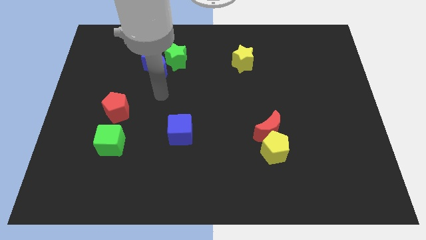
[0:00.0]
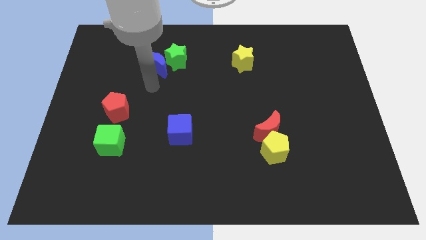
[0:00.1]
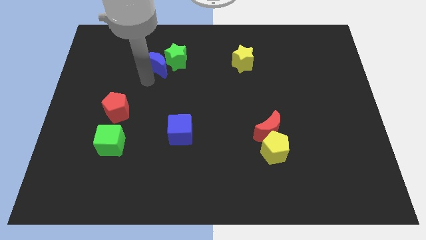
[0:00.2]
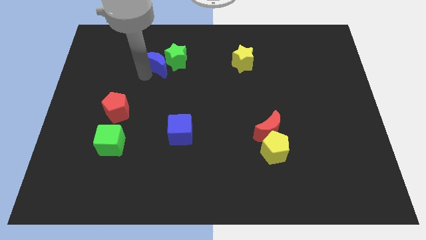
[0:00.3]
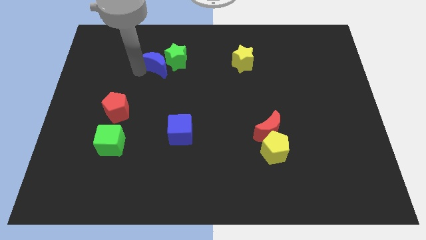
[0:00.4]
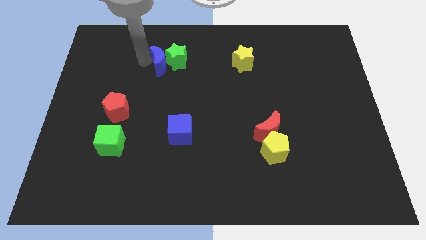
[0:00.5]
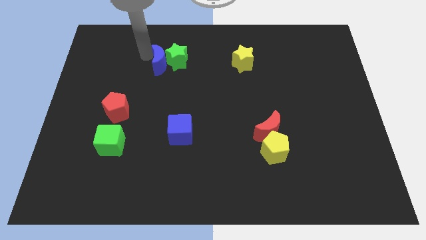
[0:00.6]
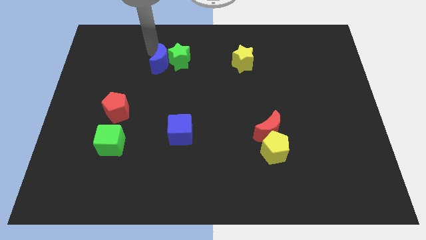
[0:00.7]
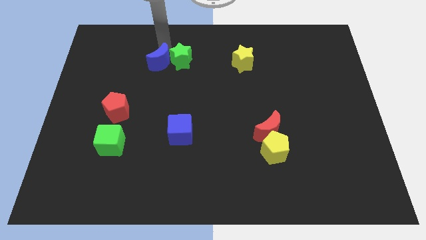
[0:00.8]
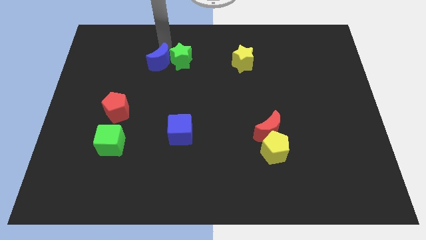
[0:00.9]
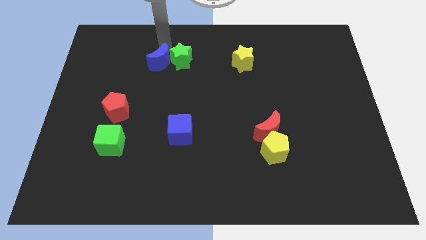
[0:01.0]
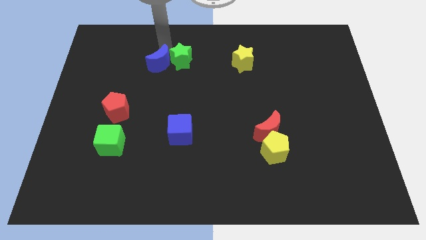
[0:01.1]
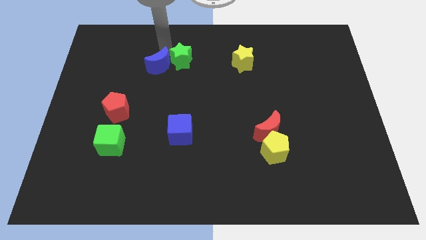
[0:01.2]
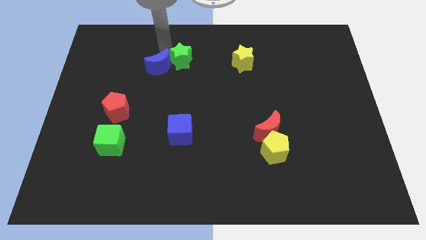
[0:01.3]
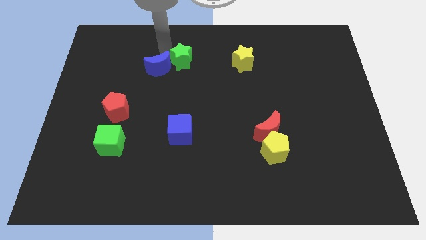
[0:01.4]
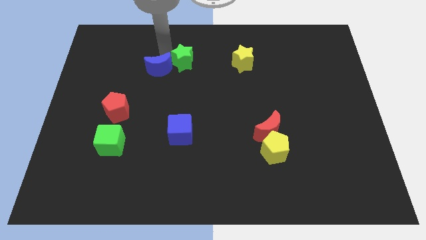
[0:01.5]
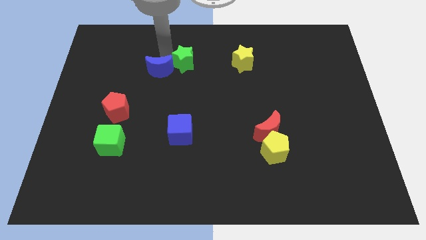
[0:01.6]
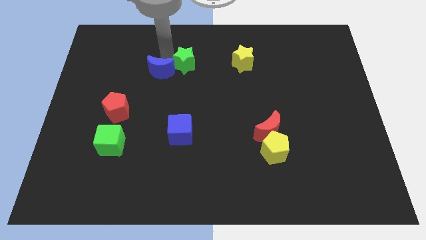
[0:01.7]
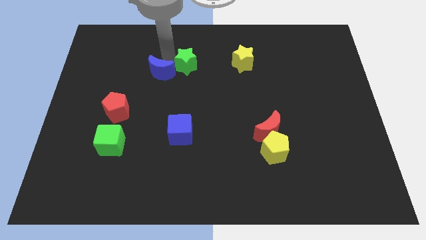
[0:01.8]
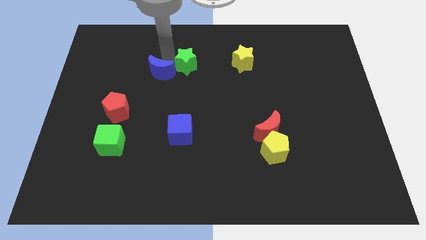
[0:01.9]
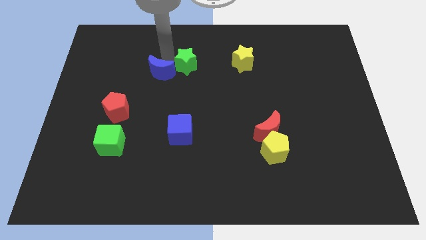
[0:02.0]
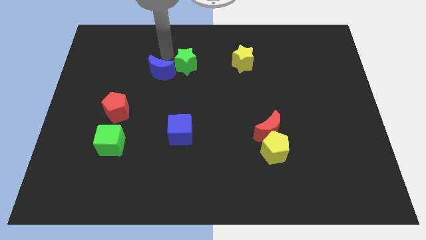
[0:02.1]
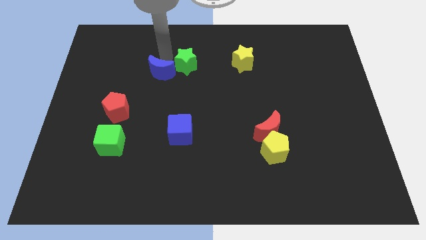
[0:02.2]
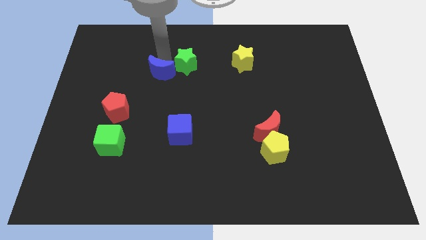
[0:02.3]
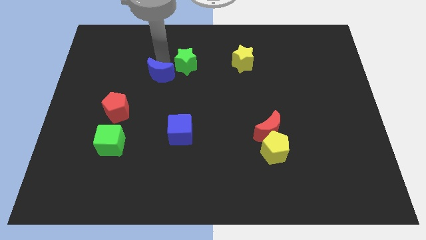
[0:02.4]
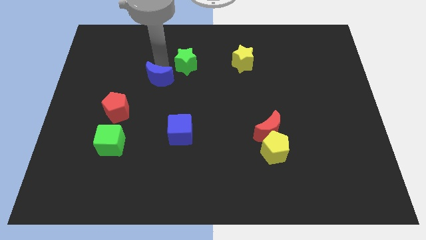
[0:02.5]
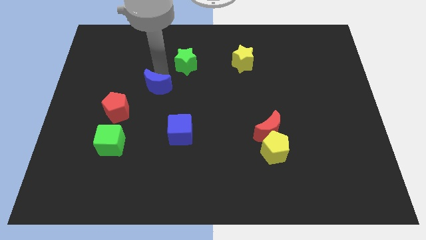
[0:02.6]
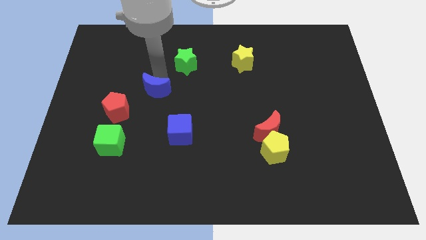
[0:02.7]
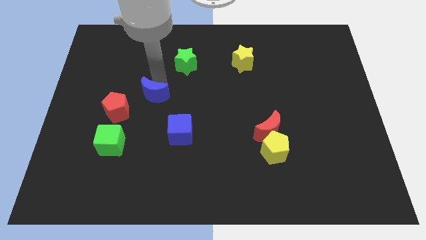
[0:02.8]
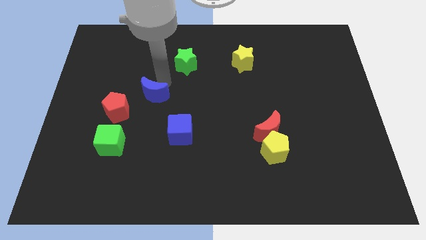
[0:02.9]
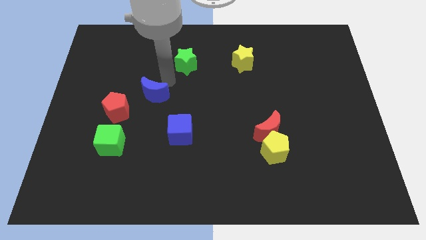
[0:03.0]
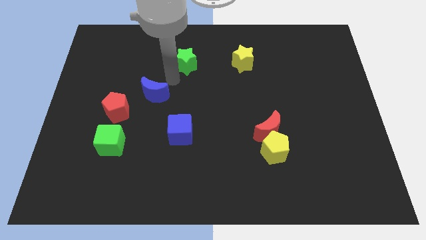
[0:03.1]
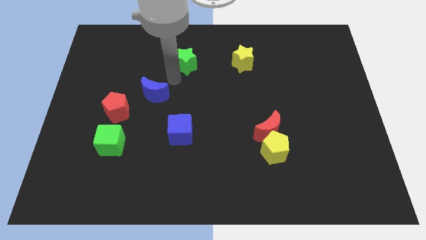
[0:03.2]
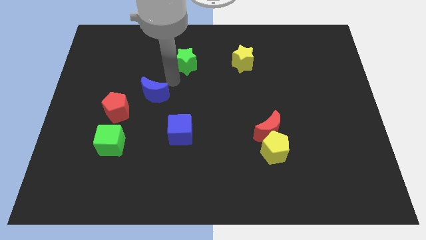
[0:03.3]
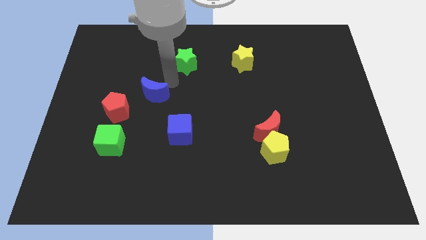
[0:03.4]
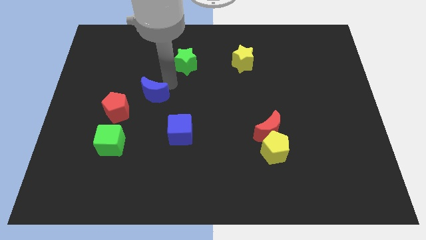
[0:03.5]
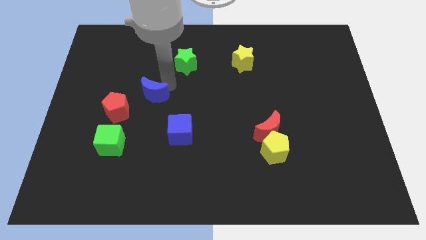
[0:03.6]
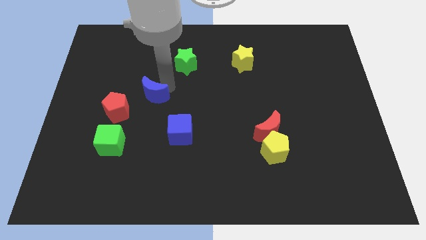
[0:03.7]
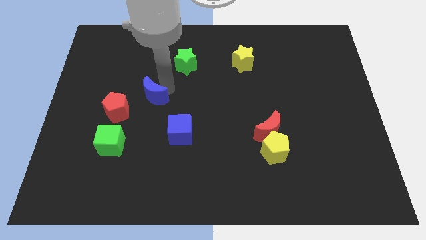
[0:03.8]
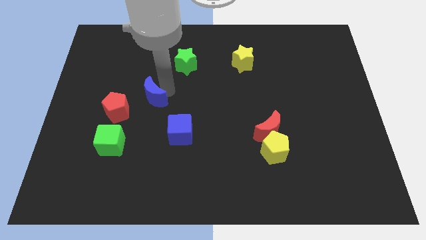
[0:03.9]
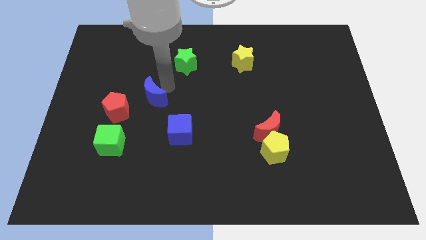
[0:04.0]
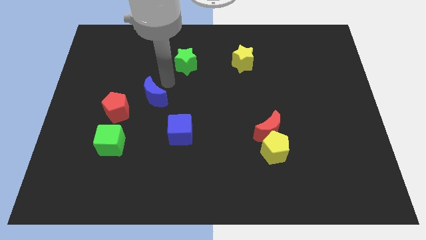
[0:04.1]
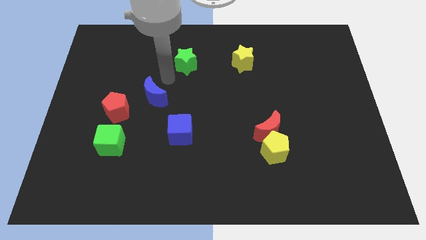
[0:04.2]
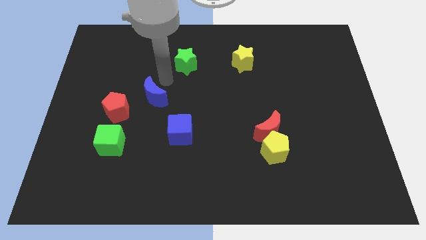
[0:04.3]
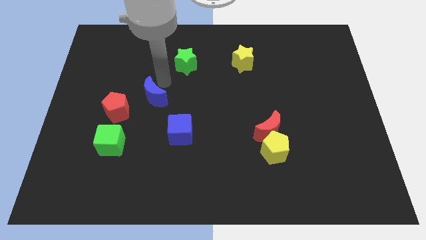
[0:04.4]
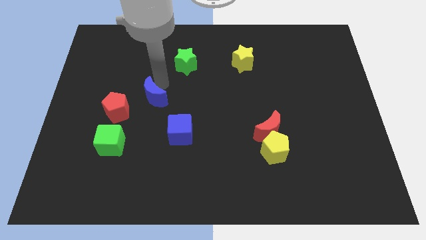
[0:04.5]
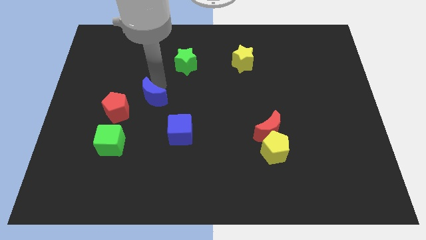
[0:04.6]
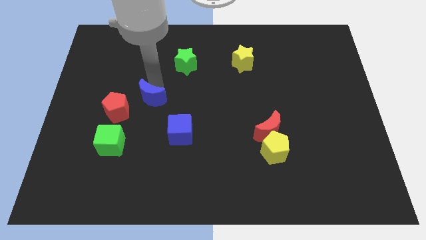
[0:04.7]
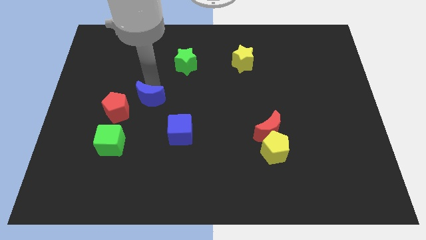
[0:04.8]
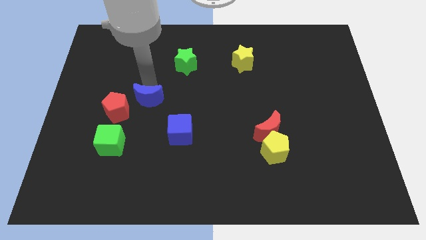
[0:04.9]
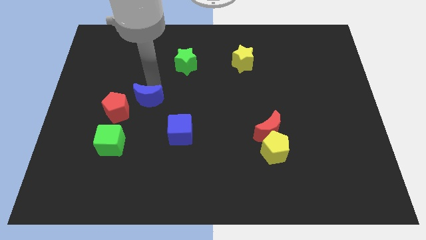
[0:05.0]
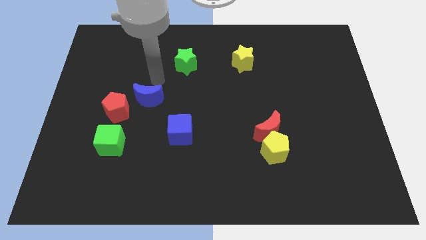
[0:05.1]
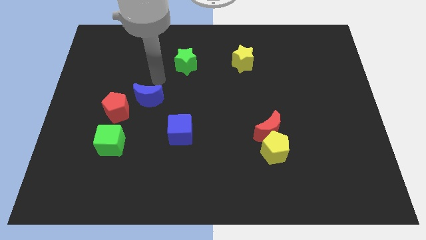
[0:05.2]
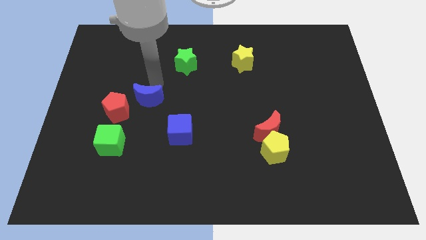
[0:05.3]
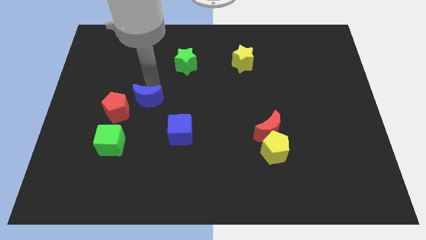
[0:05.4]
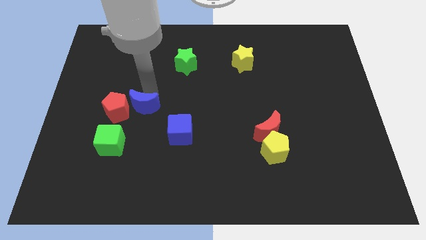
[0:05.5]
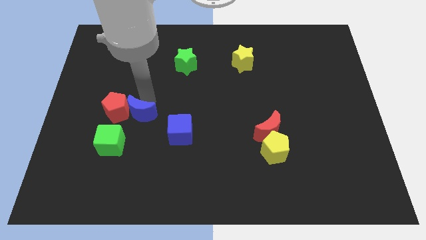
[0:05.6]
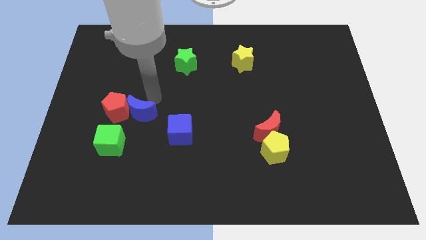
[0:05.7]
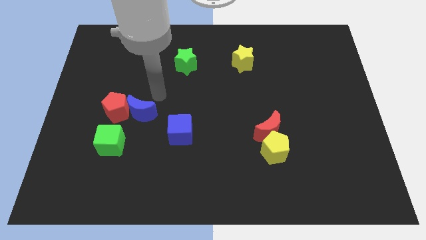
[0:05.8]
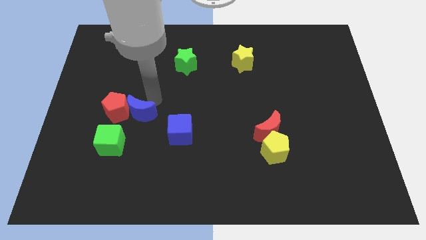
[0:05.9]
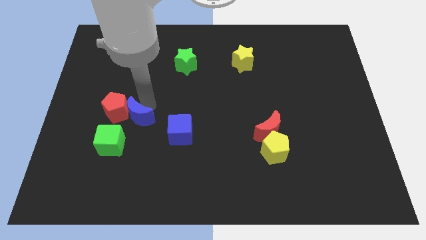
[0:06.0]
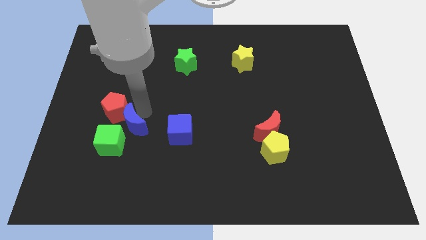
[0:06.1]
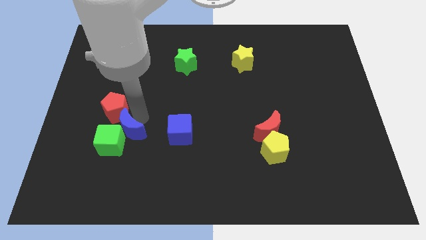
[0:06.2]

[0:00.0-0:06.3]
push the blue moon towards the green cube
